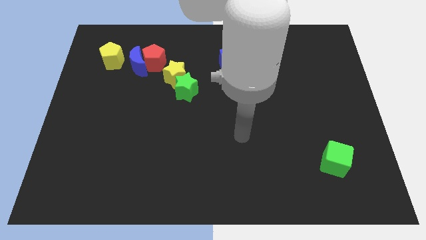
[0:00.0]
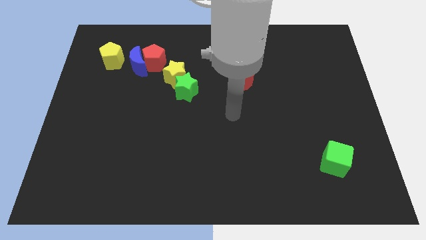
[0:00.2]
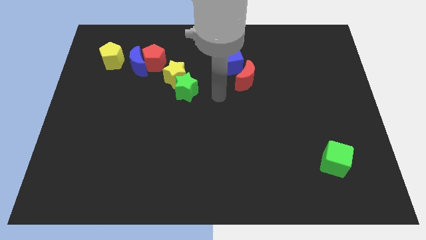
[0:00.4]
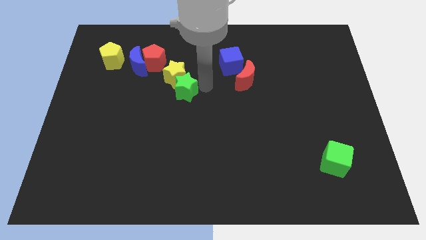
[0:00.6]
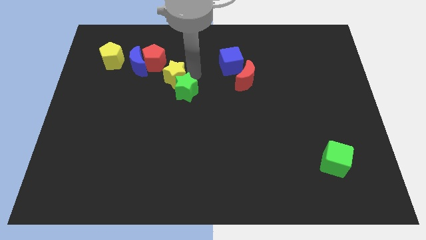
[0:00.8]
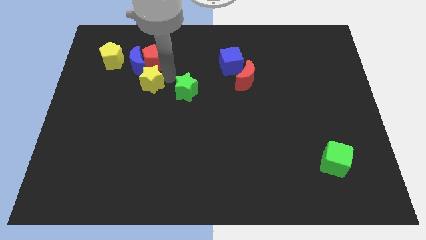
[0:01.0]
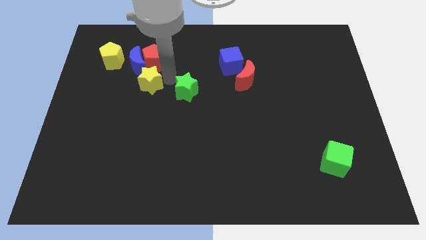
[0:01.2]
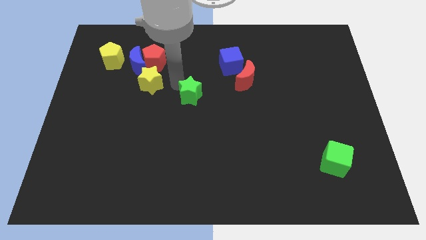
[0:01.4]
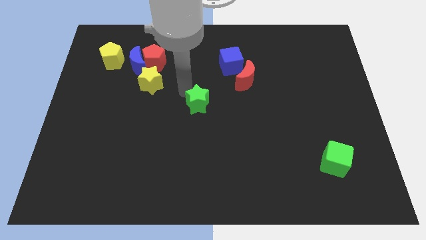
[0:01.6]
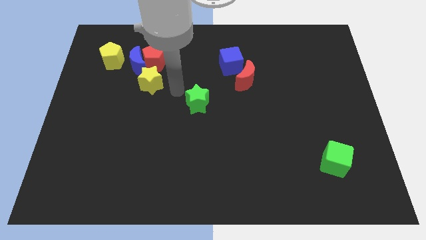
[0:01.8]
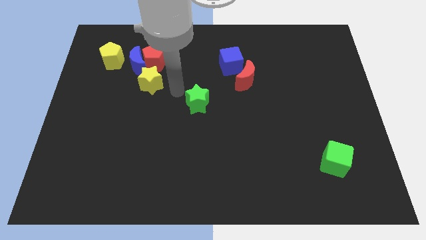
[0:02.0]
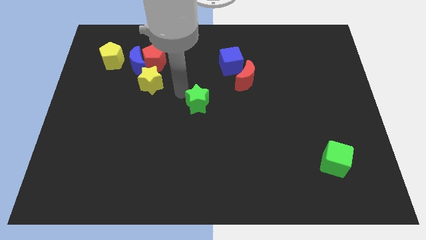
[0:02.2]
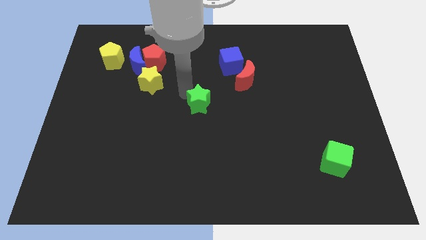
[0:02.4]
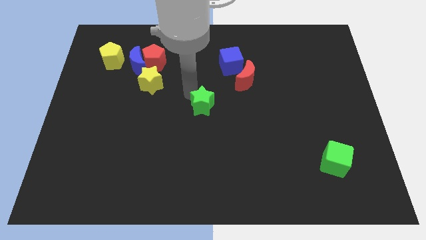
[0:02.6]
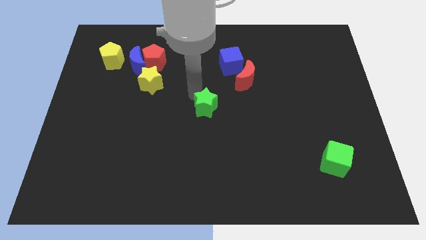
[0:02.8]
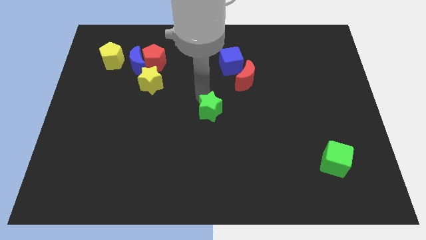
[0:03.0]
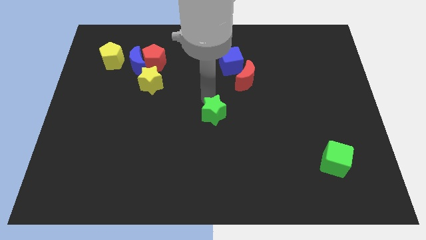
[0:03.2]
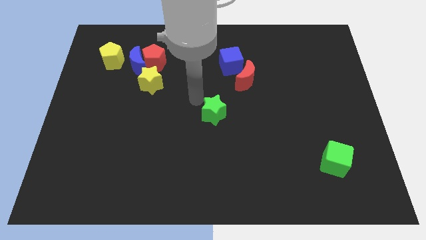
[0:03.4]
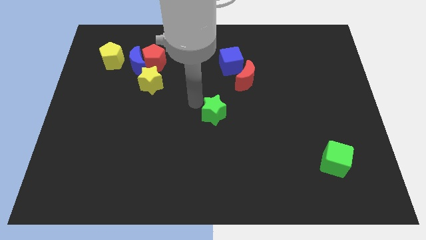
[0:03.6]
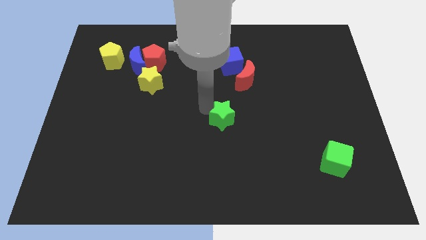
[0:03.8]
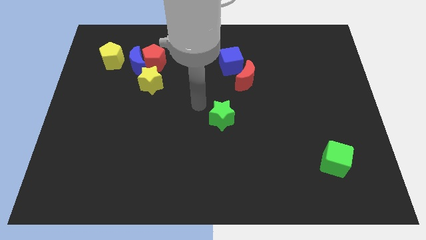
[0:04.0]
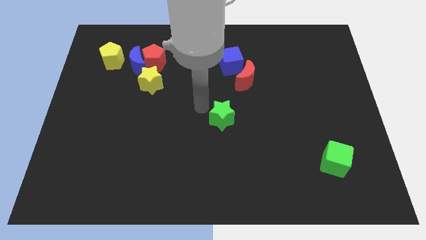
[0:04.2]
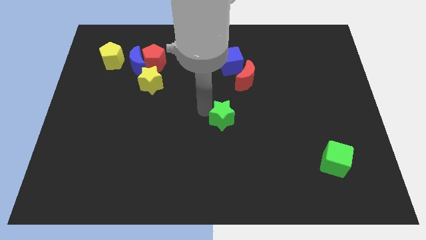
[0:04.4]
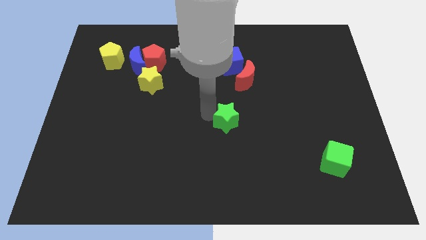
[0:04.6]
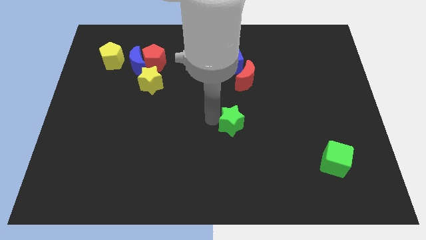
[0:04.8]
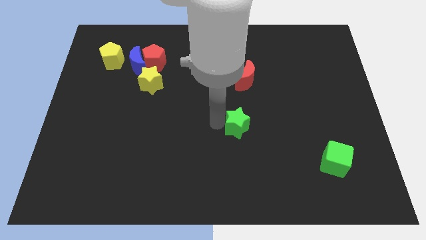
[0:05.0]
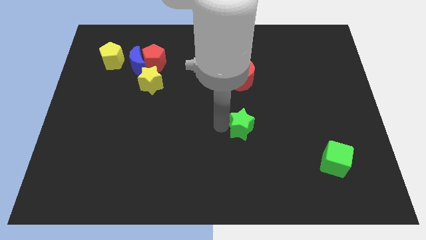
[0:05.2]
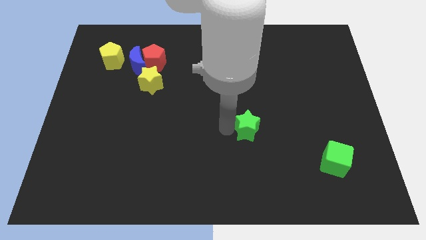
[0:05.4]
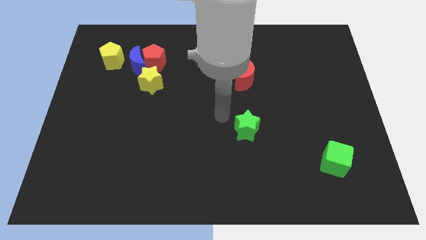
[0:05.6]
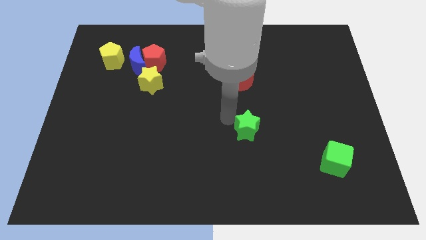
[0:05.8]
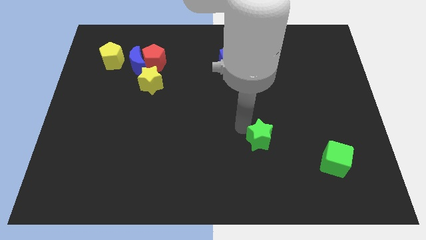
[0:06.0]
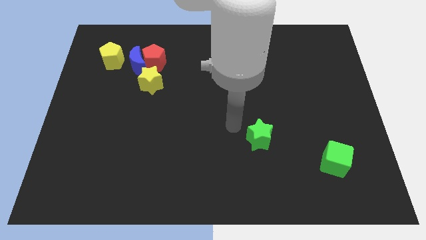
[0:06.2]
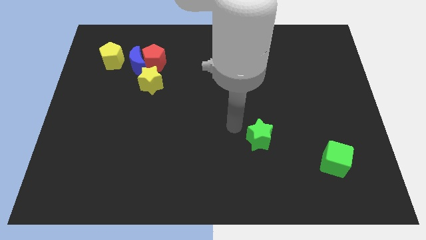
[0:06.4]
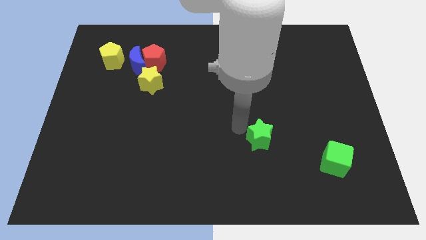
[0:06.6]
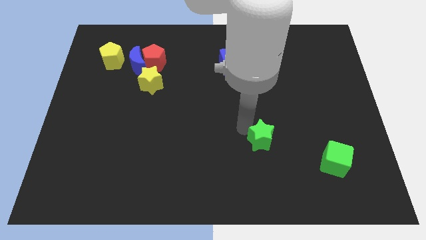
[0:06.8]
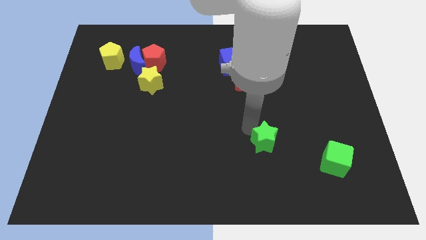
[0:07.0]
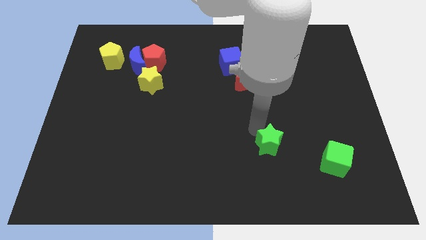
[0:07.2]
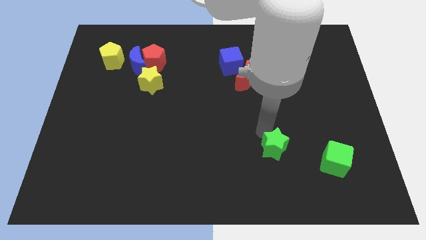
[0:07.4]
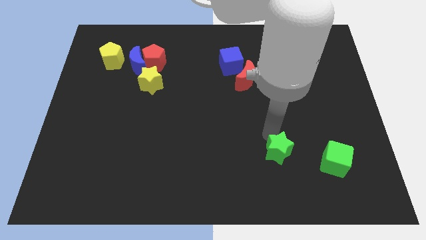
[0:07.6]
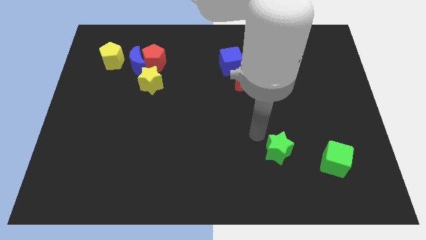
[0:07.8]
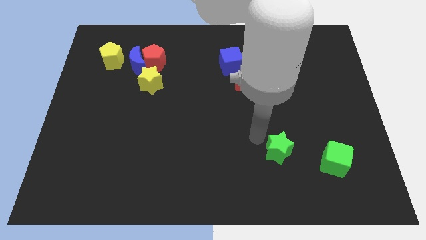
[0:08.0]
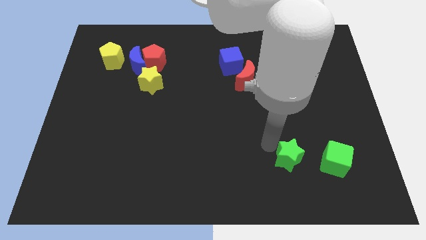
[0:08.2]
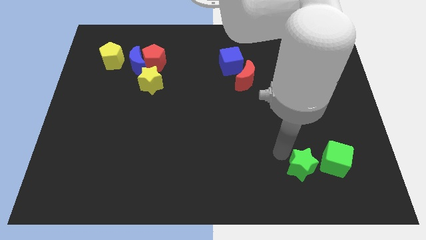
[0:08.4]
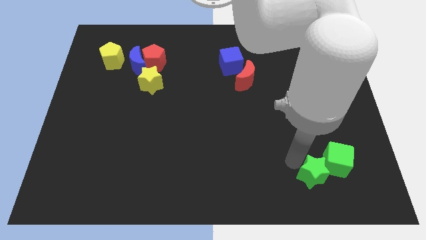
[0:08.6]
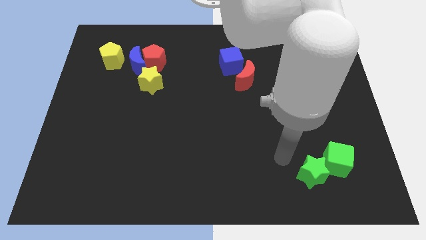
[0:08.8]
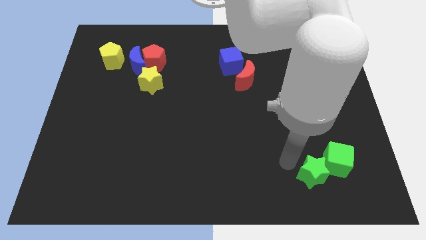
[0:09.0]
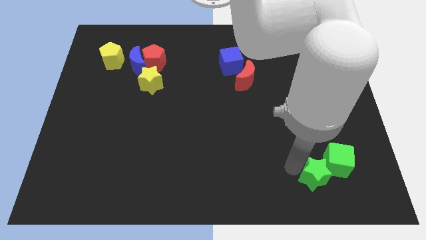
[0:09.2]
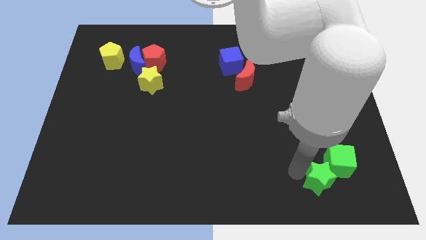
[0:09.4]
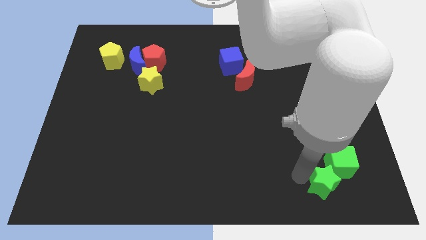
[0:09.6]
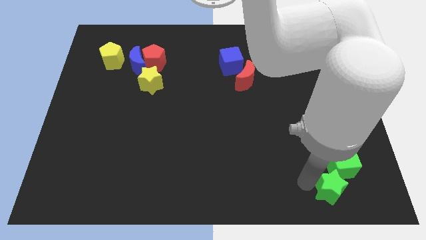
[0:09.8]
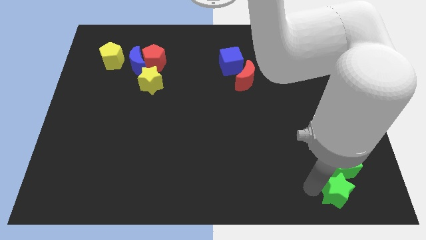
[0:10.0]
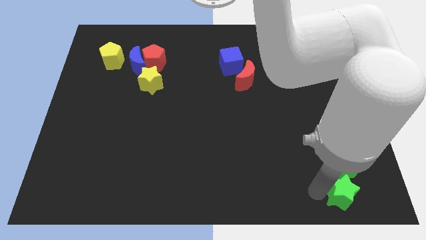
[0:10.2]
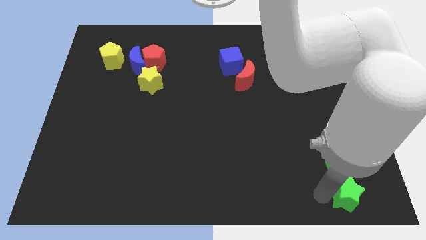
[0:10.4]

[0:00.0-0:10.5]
put the green star to the bottom right corner
